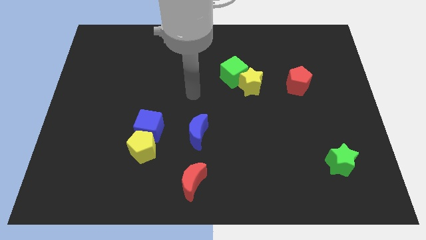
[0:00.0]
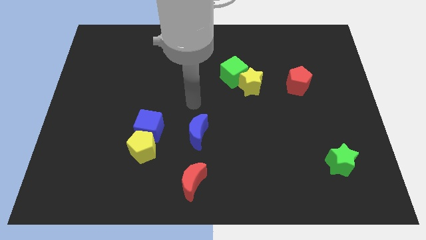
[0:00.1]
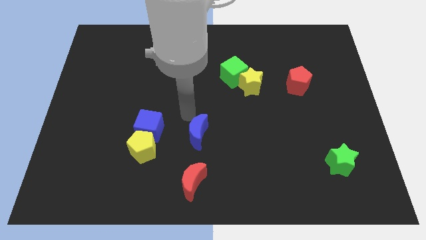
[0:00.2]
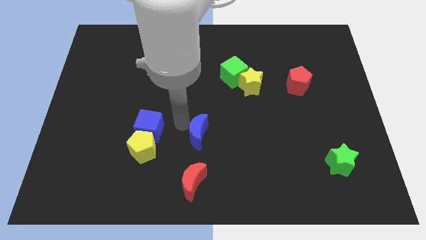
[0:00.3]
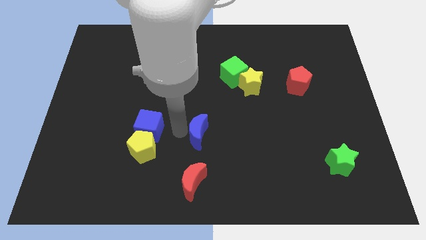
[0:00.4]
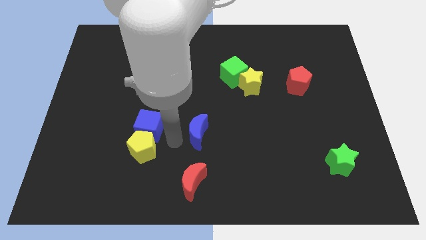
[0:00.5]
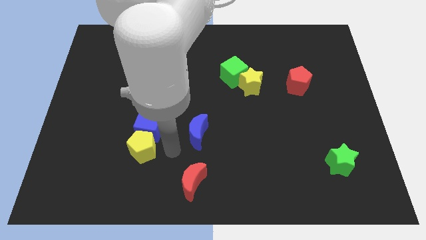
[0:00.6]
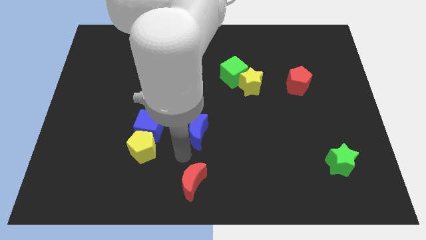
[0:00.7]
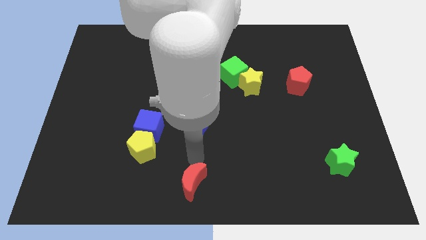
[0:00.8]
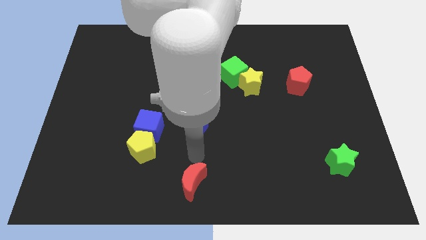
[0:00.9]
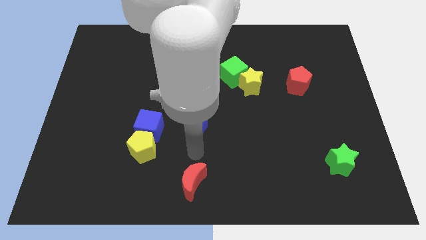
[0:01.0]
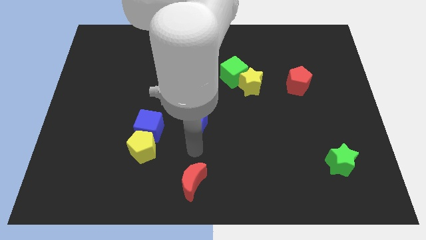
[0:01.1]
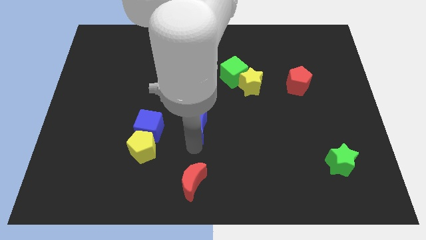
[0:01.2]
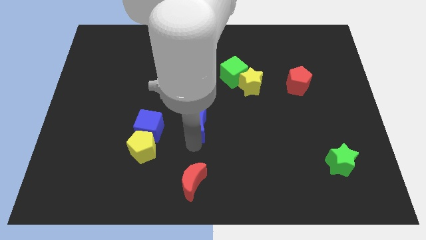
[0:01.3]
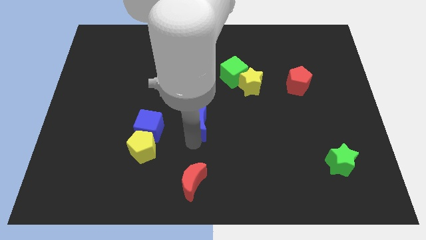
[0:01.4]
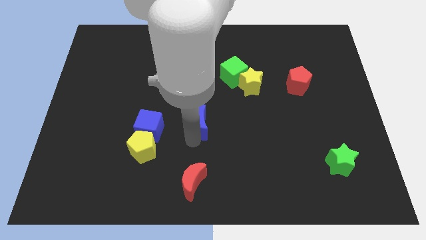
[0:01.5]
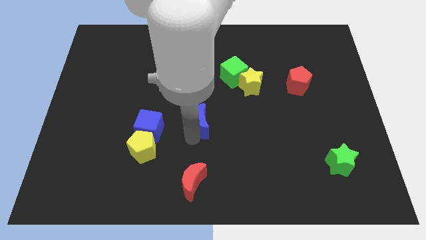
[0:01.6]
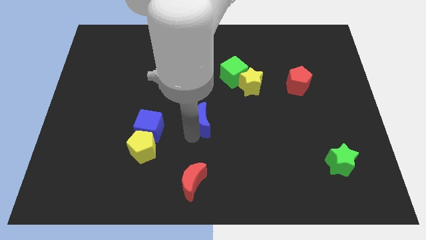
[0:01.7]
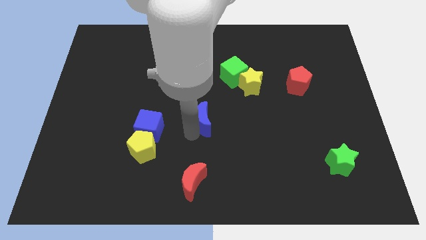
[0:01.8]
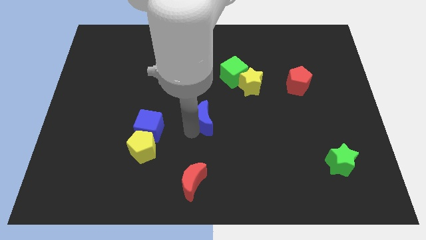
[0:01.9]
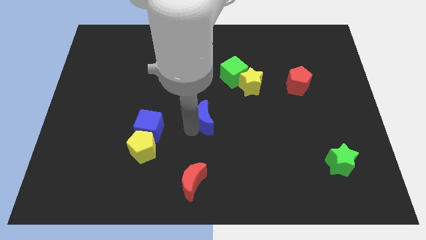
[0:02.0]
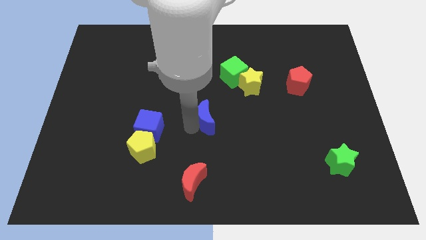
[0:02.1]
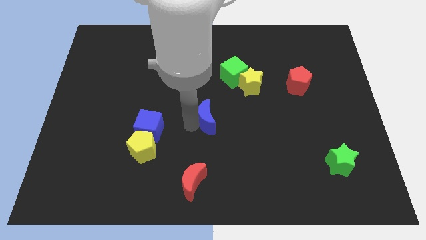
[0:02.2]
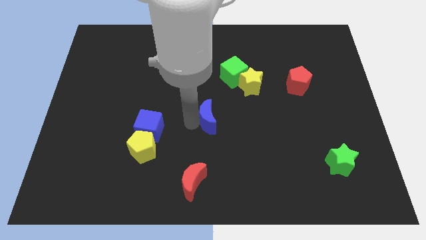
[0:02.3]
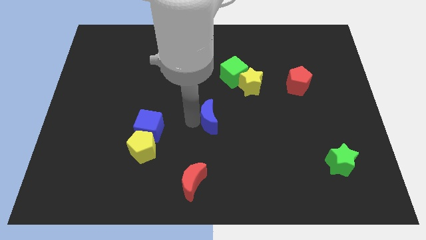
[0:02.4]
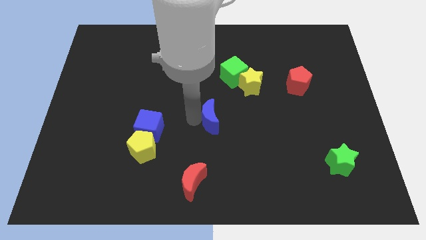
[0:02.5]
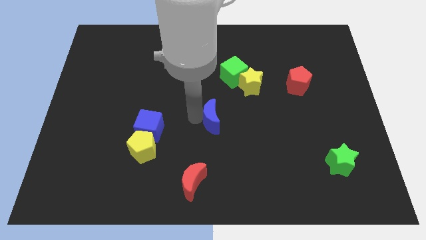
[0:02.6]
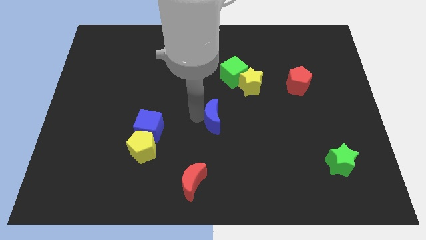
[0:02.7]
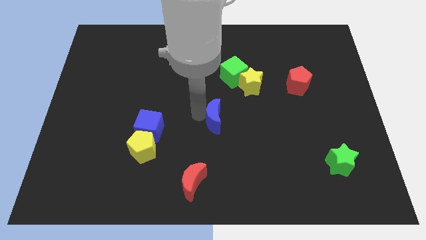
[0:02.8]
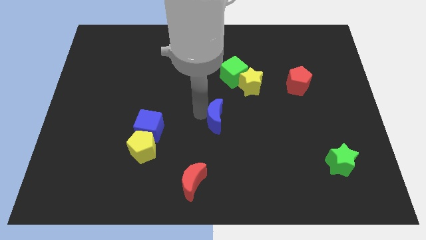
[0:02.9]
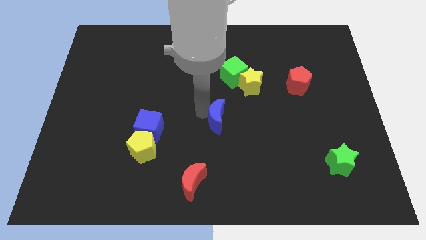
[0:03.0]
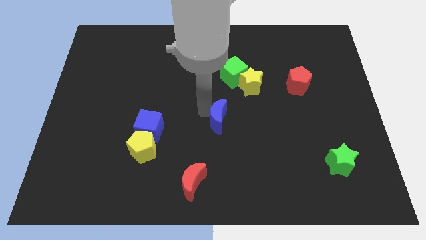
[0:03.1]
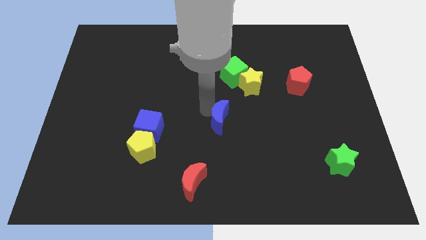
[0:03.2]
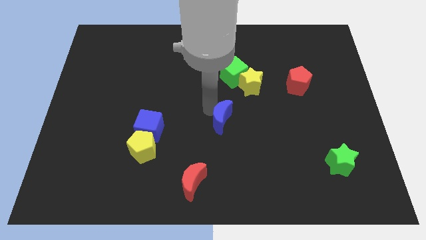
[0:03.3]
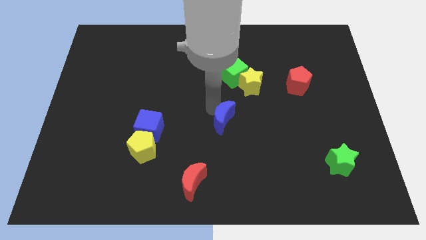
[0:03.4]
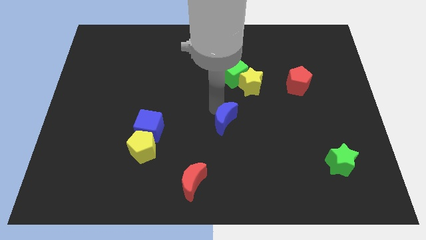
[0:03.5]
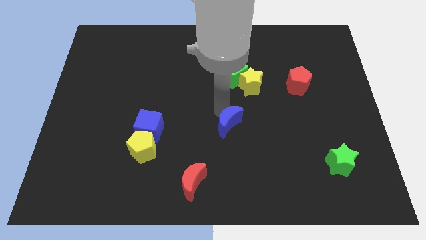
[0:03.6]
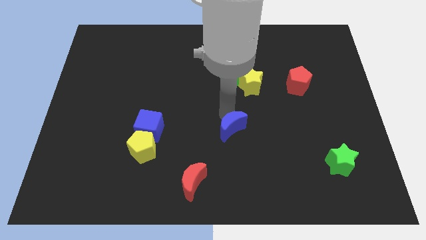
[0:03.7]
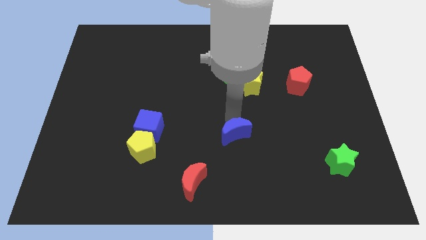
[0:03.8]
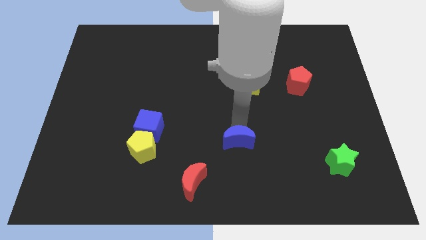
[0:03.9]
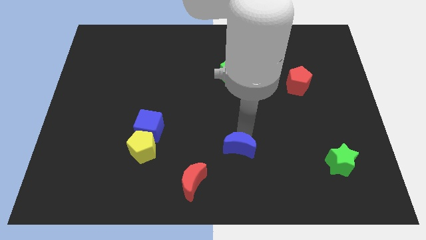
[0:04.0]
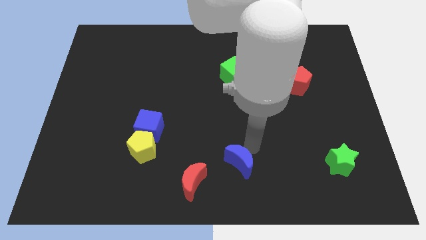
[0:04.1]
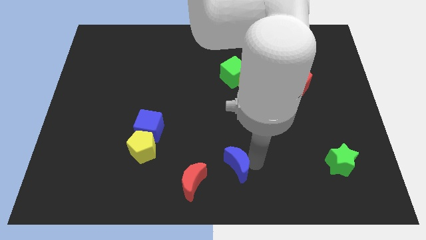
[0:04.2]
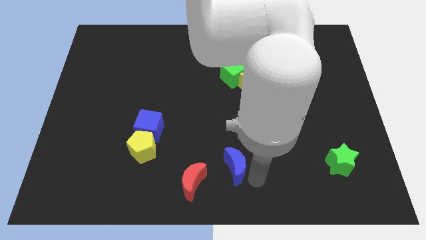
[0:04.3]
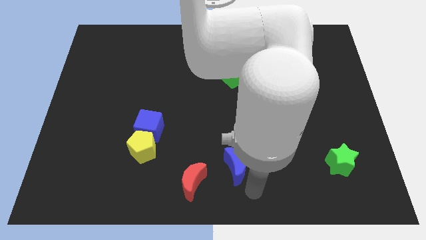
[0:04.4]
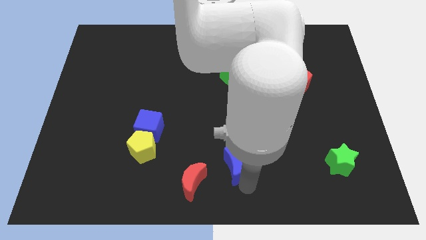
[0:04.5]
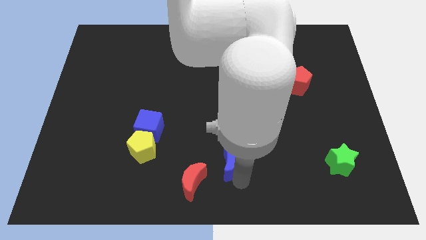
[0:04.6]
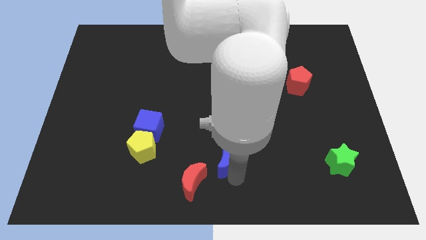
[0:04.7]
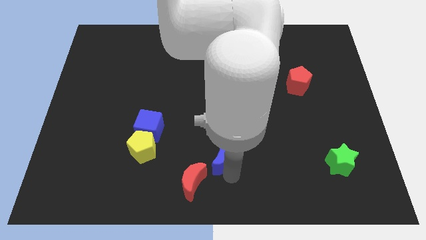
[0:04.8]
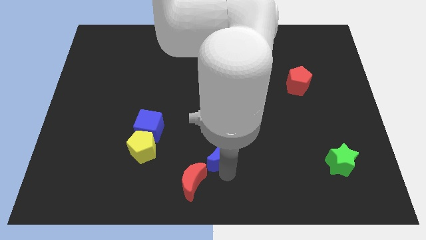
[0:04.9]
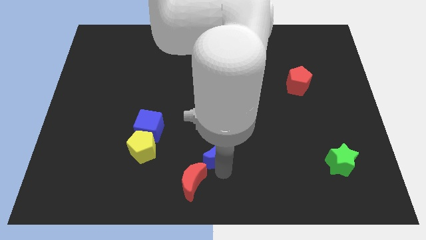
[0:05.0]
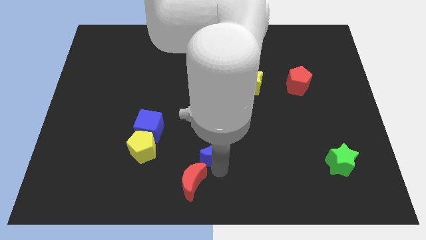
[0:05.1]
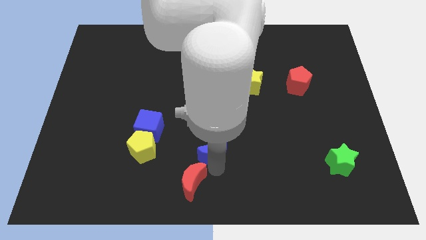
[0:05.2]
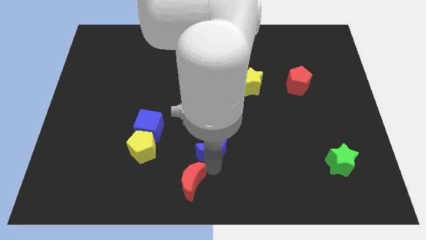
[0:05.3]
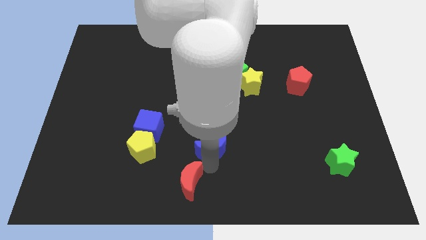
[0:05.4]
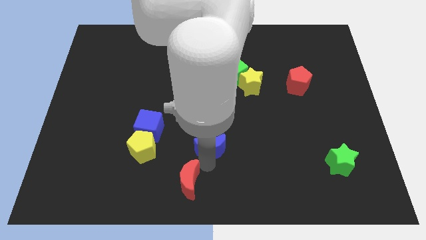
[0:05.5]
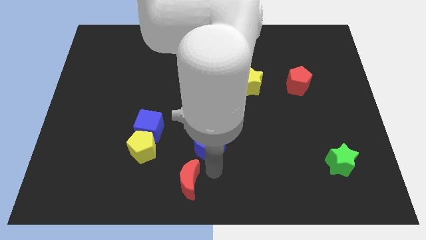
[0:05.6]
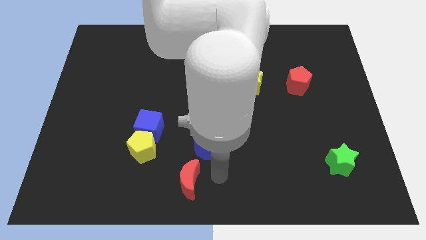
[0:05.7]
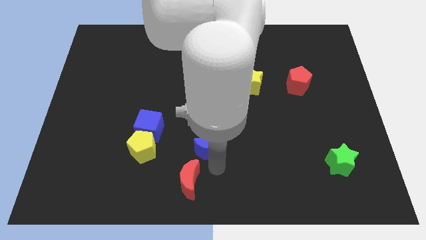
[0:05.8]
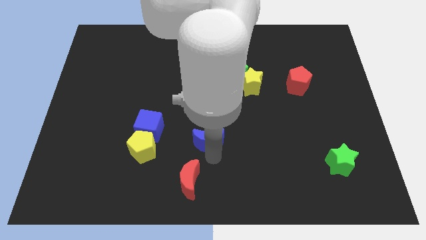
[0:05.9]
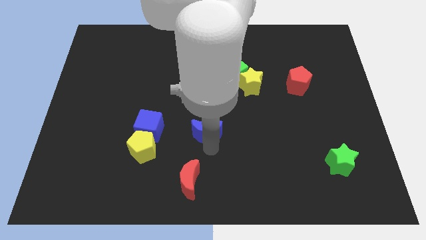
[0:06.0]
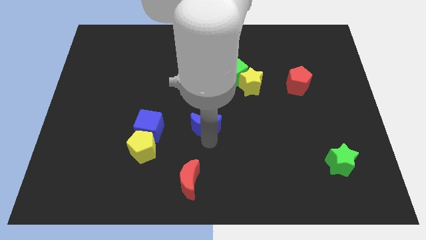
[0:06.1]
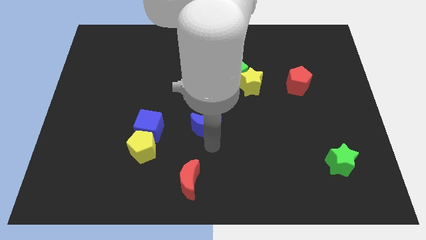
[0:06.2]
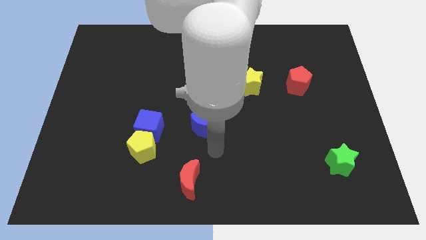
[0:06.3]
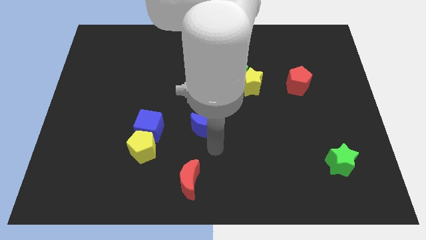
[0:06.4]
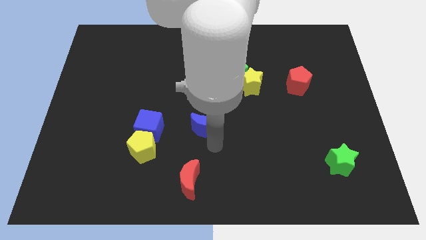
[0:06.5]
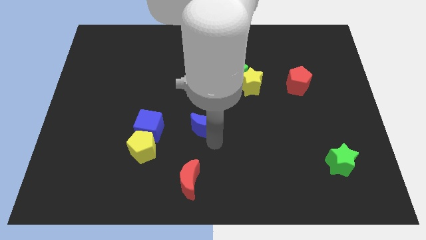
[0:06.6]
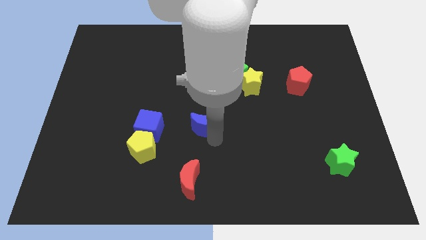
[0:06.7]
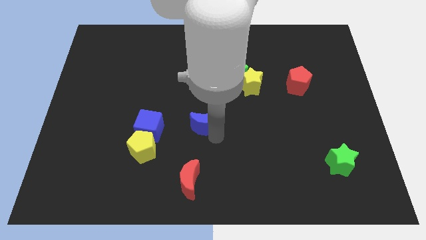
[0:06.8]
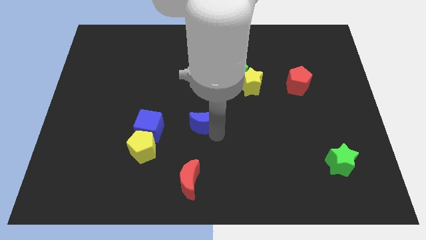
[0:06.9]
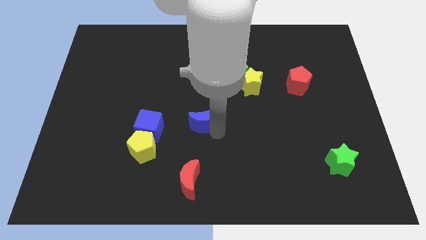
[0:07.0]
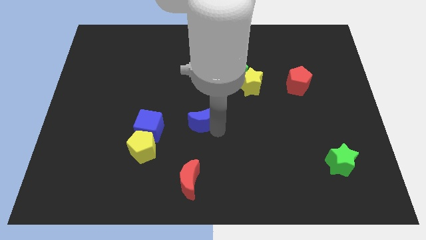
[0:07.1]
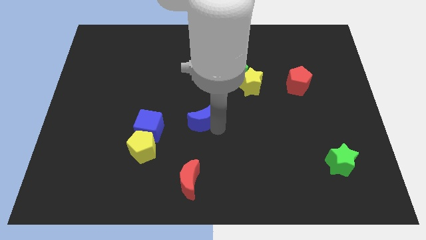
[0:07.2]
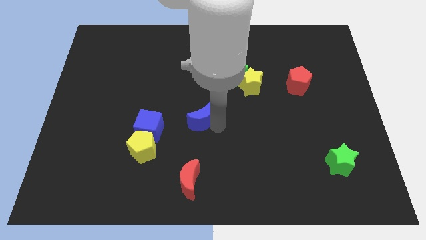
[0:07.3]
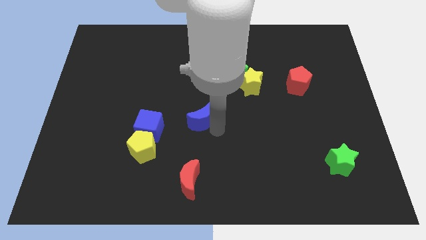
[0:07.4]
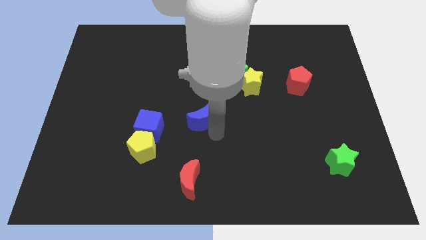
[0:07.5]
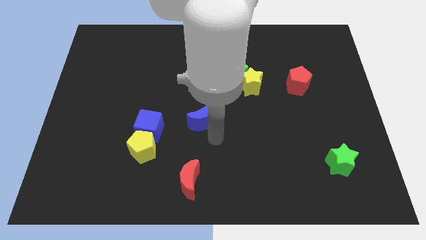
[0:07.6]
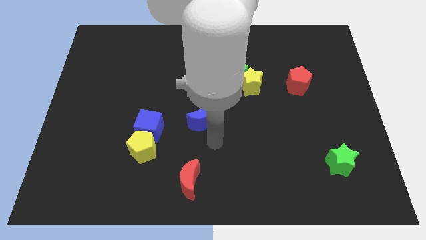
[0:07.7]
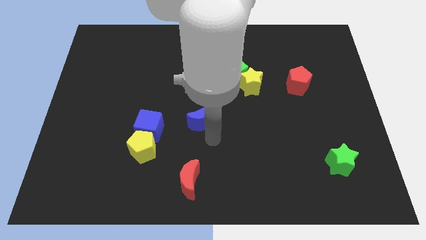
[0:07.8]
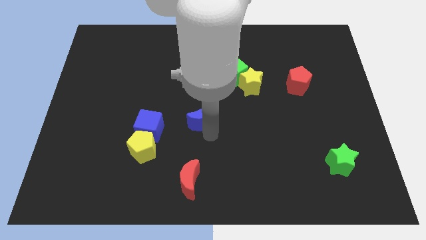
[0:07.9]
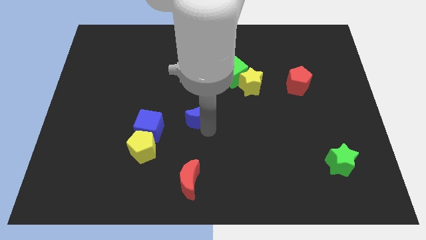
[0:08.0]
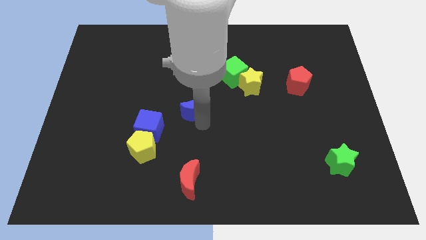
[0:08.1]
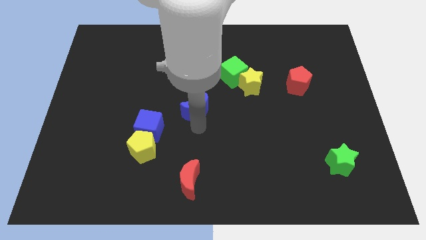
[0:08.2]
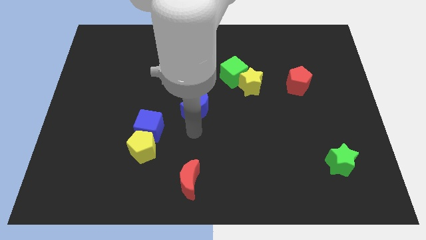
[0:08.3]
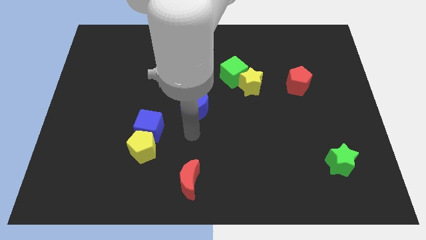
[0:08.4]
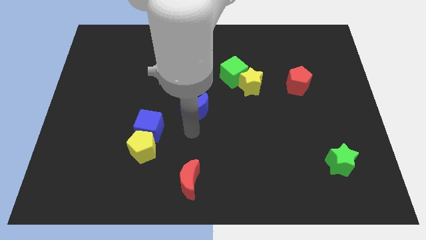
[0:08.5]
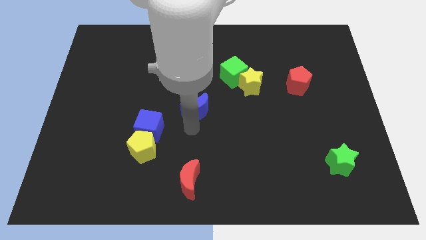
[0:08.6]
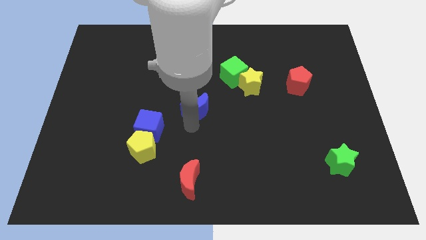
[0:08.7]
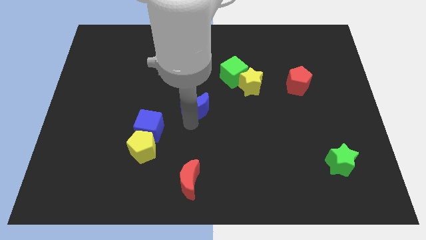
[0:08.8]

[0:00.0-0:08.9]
slightly slide the blue moon up
